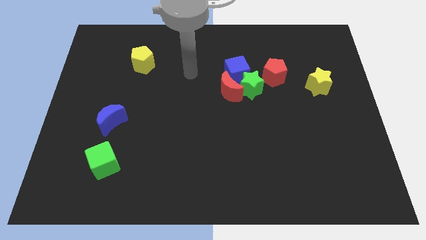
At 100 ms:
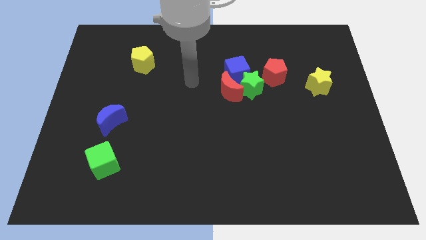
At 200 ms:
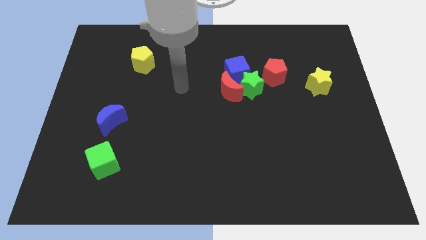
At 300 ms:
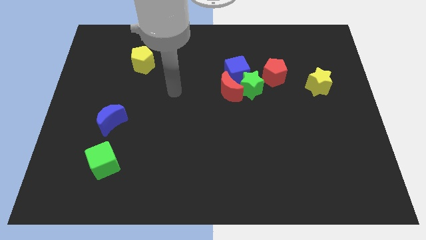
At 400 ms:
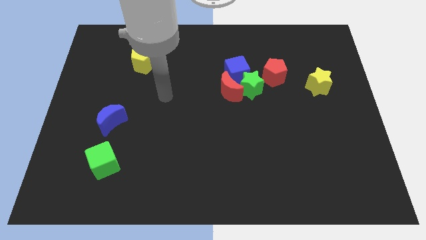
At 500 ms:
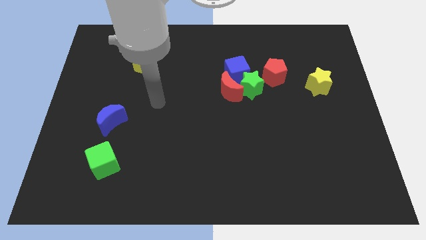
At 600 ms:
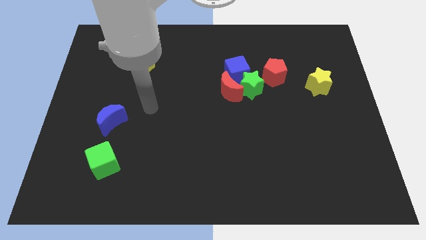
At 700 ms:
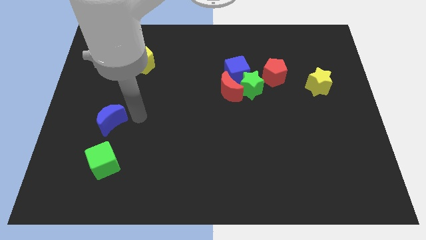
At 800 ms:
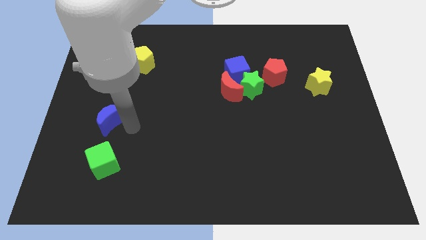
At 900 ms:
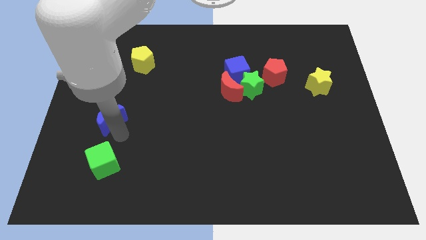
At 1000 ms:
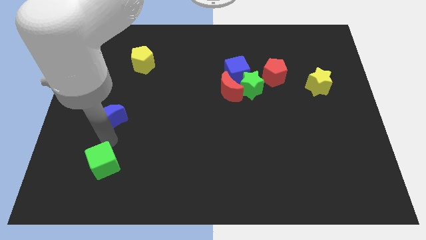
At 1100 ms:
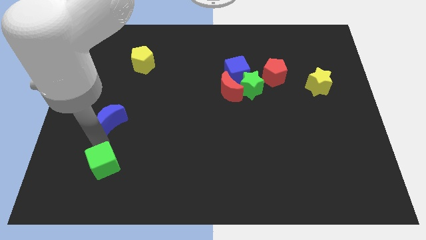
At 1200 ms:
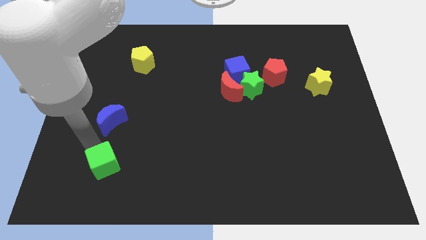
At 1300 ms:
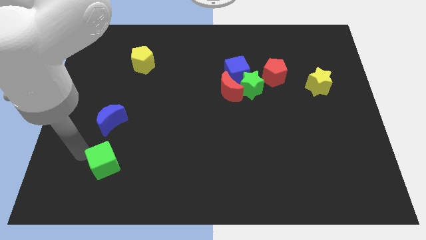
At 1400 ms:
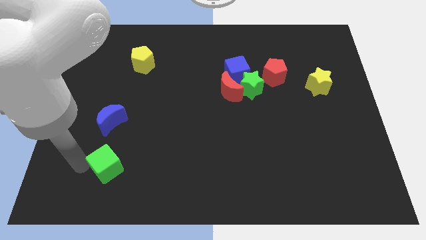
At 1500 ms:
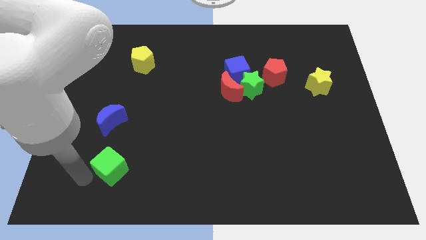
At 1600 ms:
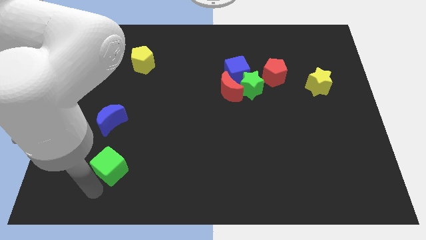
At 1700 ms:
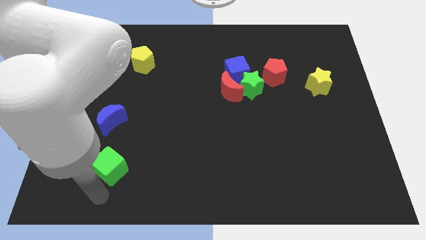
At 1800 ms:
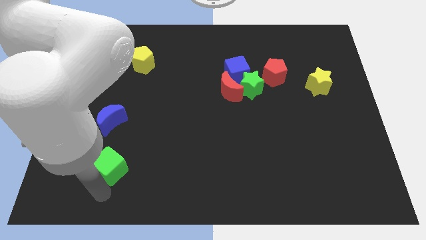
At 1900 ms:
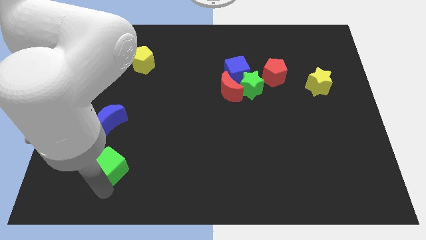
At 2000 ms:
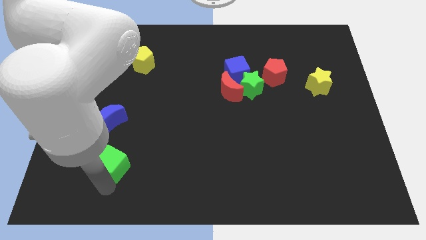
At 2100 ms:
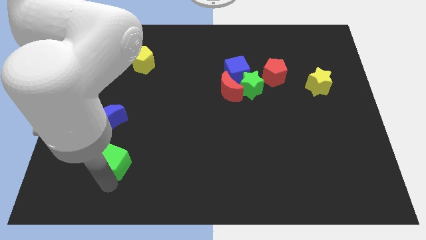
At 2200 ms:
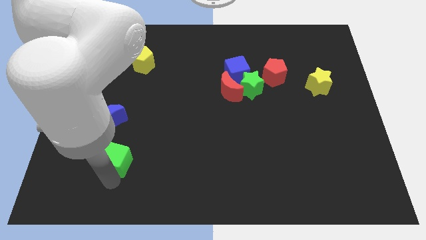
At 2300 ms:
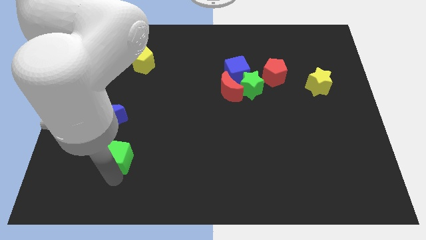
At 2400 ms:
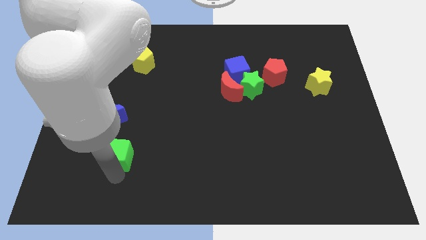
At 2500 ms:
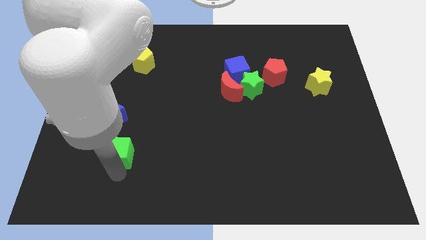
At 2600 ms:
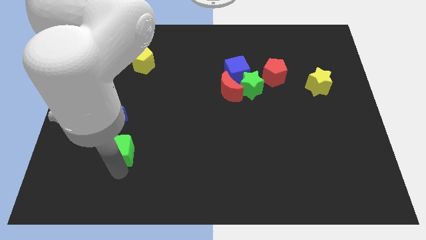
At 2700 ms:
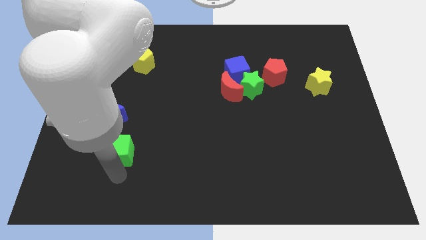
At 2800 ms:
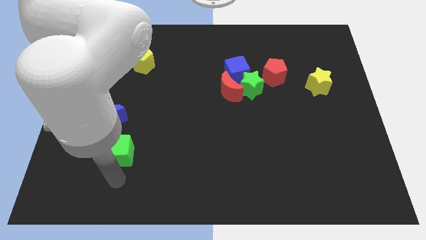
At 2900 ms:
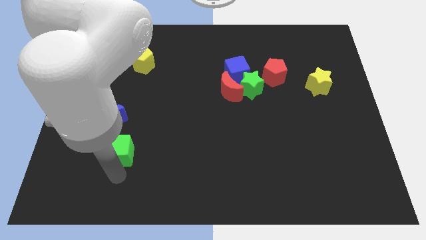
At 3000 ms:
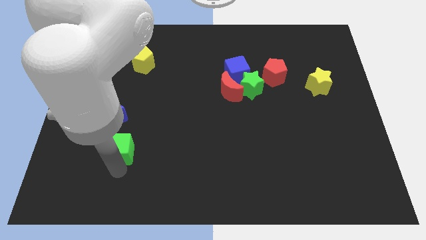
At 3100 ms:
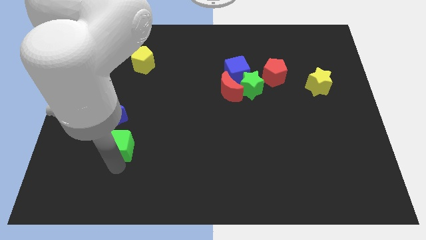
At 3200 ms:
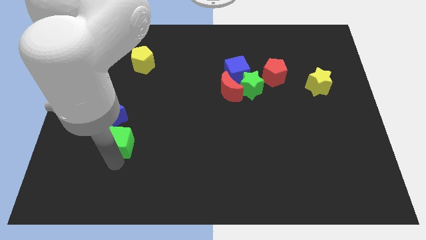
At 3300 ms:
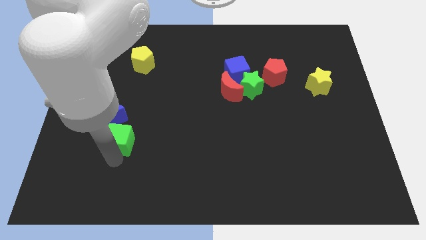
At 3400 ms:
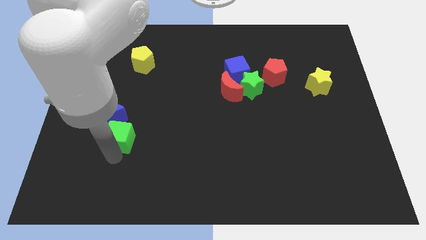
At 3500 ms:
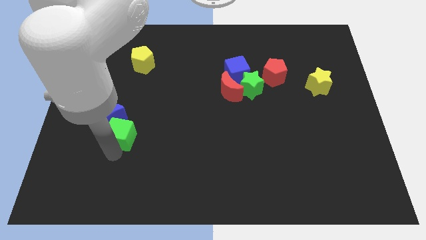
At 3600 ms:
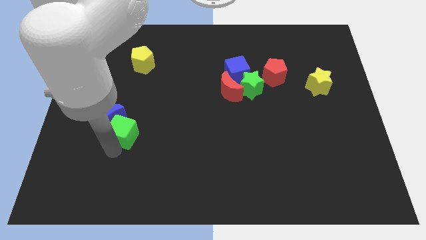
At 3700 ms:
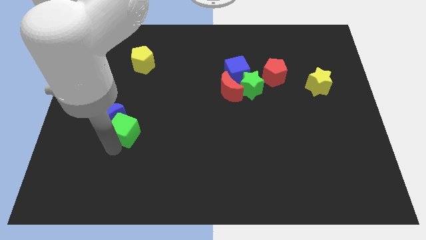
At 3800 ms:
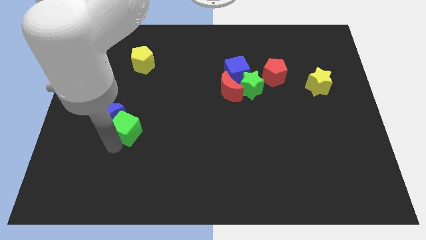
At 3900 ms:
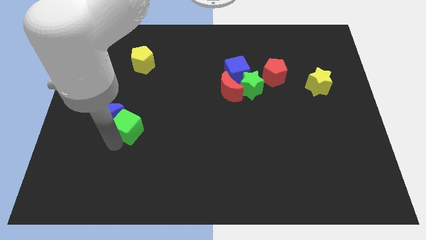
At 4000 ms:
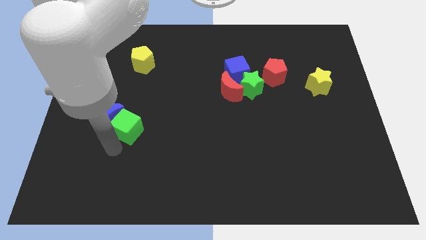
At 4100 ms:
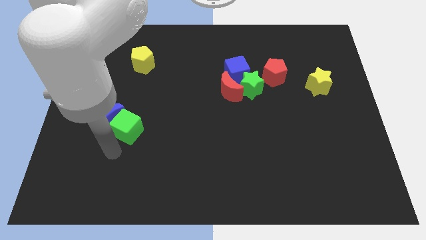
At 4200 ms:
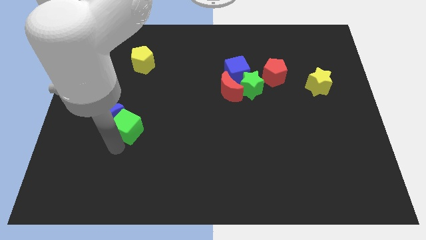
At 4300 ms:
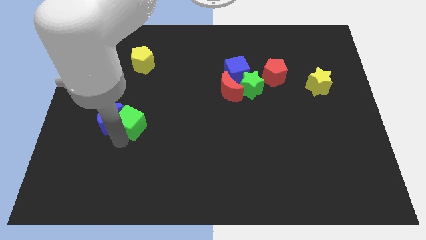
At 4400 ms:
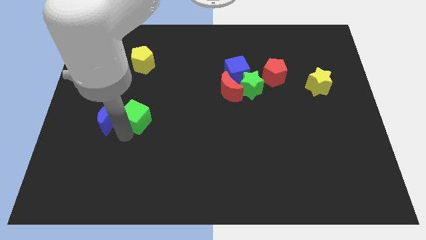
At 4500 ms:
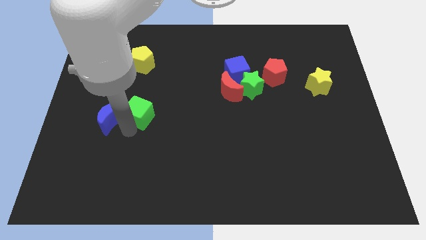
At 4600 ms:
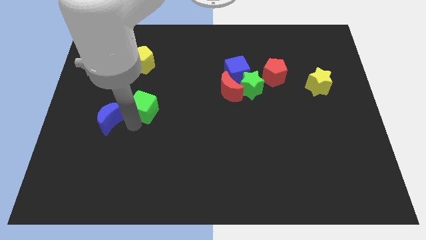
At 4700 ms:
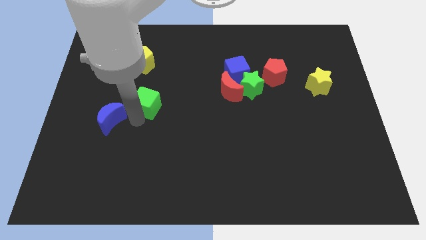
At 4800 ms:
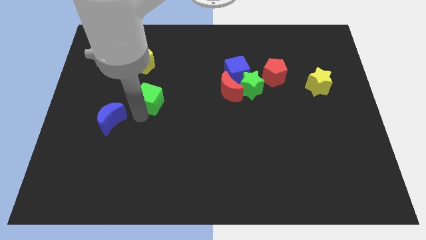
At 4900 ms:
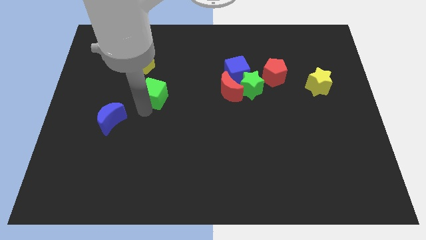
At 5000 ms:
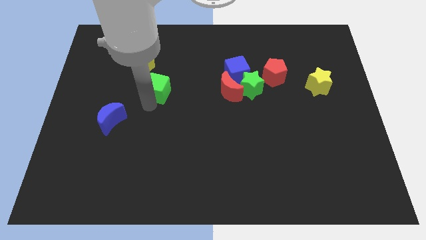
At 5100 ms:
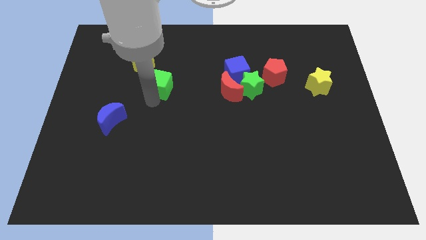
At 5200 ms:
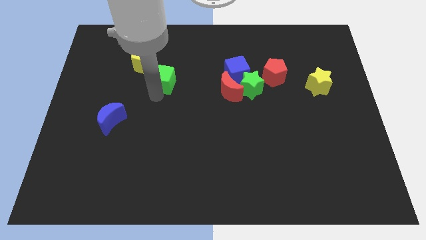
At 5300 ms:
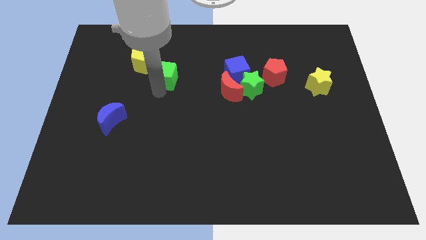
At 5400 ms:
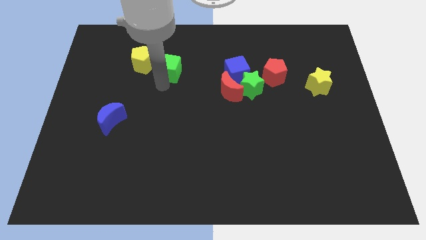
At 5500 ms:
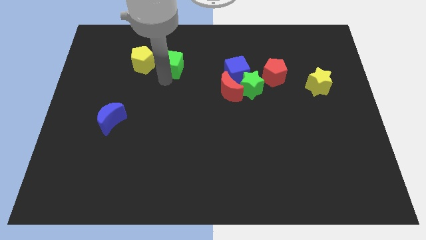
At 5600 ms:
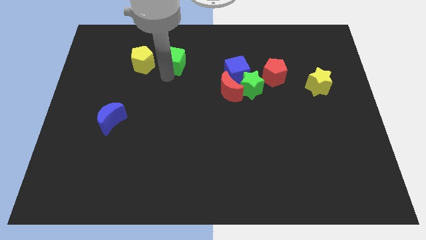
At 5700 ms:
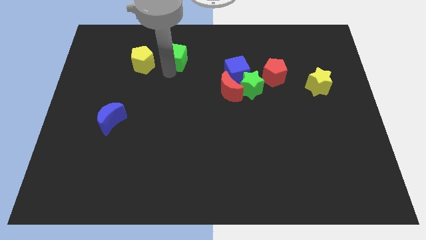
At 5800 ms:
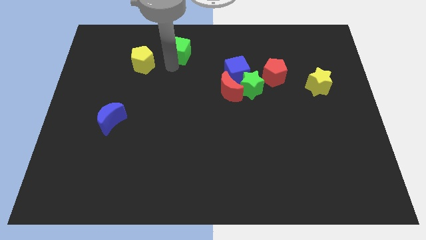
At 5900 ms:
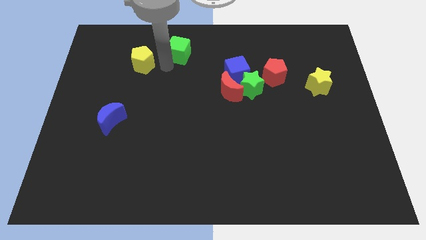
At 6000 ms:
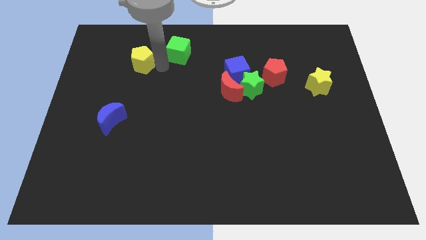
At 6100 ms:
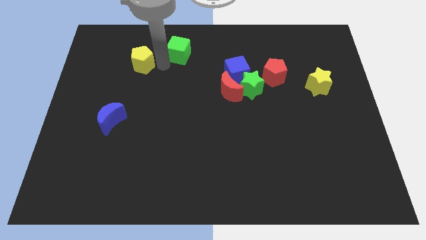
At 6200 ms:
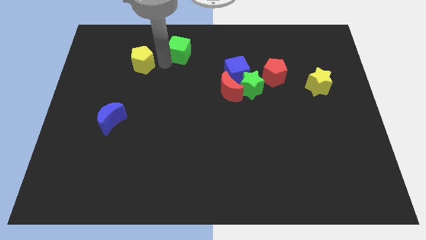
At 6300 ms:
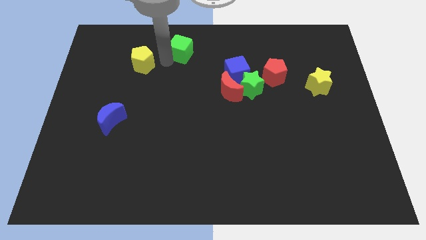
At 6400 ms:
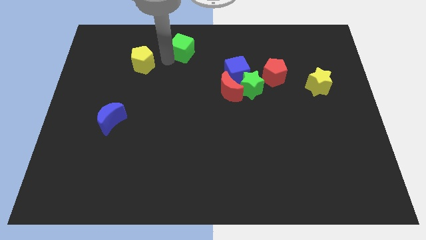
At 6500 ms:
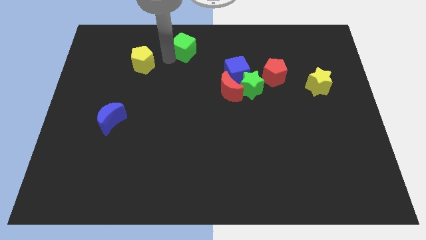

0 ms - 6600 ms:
slide the green cube to the towards your base
